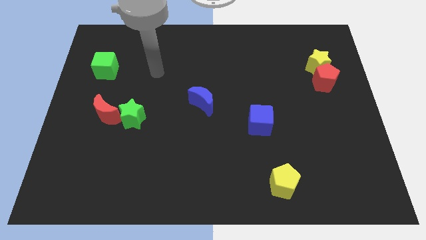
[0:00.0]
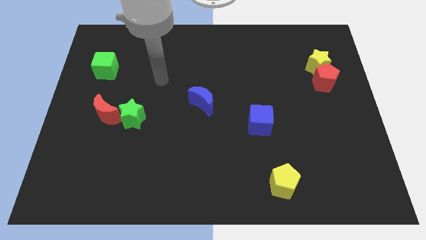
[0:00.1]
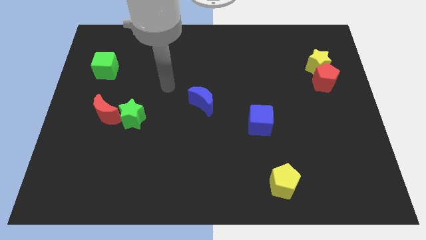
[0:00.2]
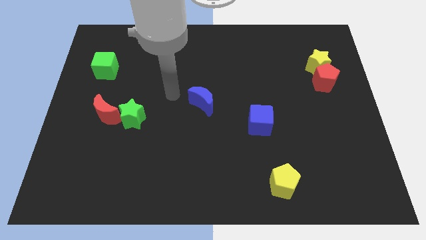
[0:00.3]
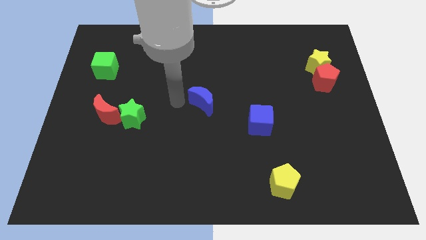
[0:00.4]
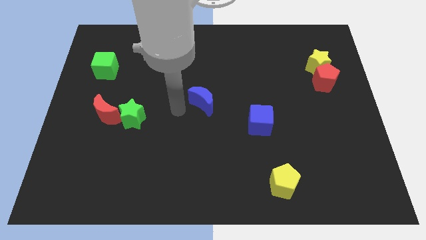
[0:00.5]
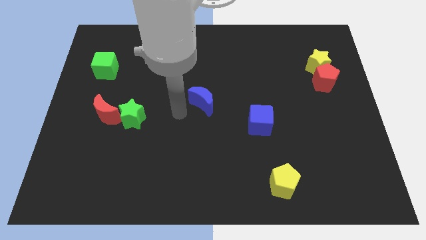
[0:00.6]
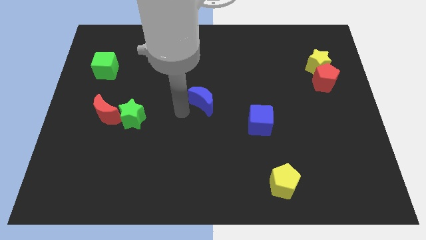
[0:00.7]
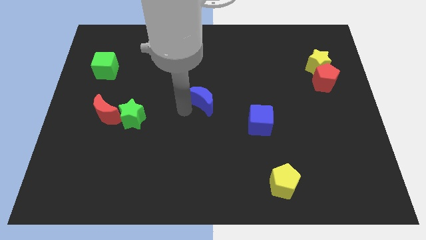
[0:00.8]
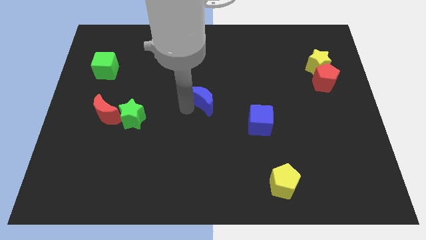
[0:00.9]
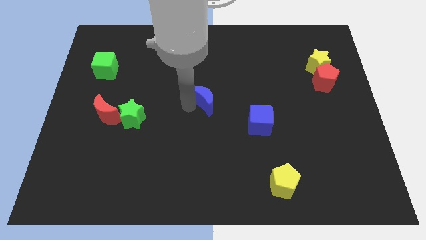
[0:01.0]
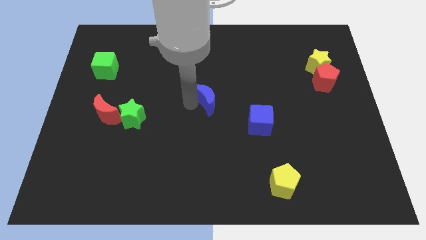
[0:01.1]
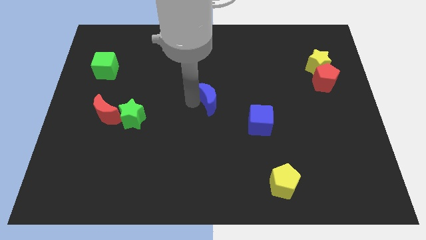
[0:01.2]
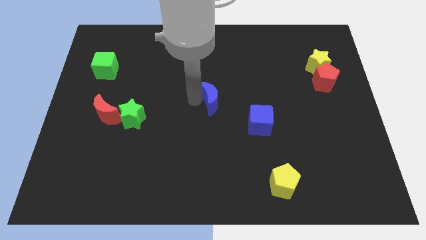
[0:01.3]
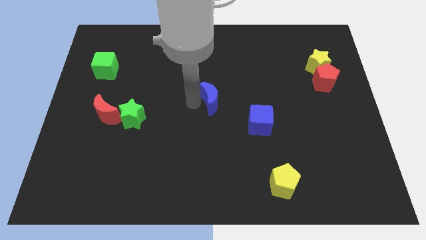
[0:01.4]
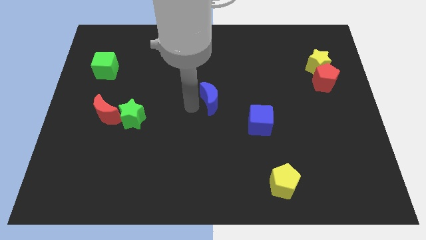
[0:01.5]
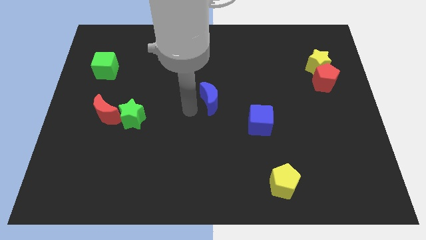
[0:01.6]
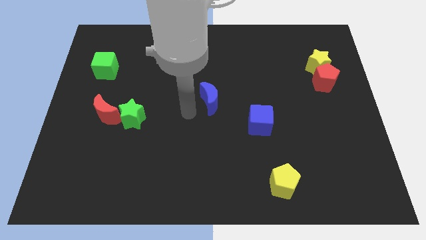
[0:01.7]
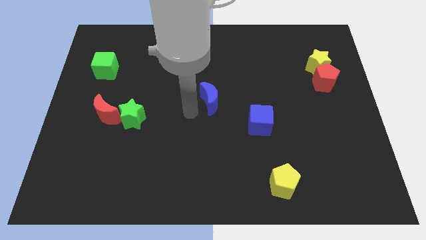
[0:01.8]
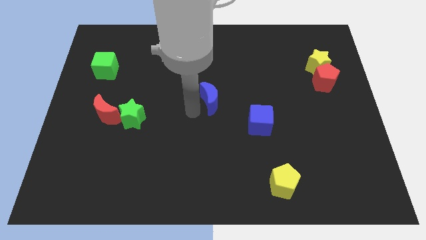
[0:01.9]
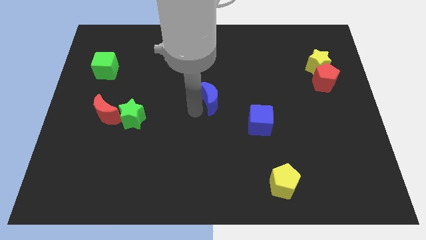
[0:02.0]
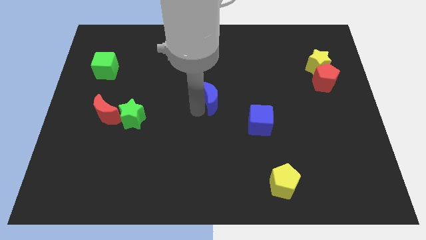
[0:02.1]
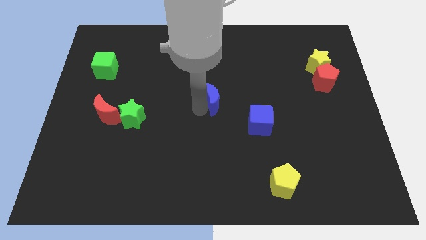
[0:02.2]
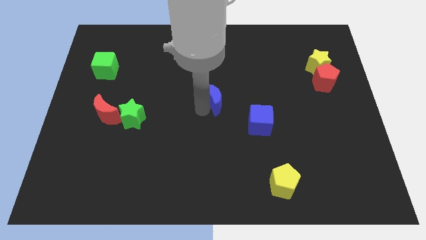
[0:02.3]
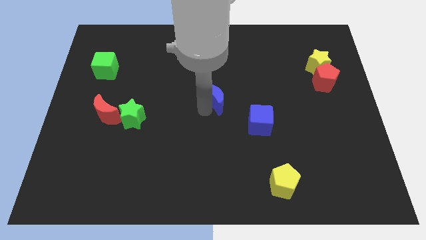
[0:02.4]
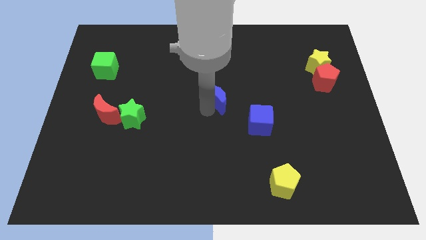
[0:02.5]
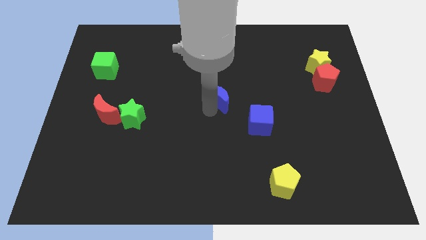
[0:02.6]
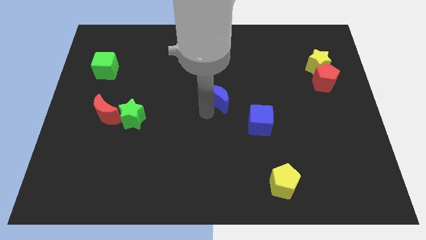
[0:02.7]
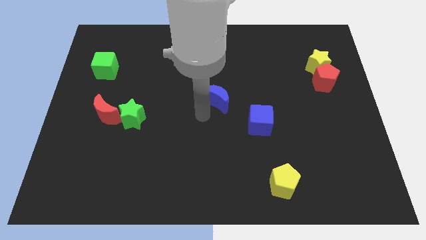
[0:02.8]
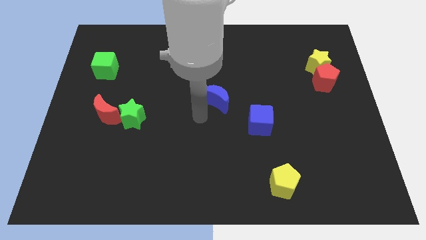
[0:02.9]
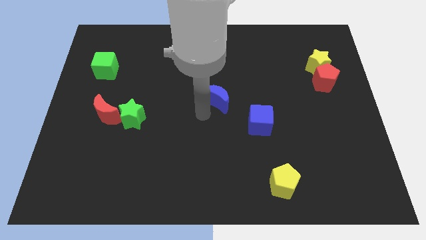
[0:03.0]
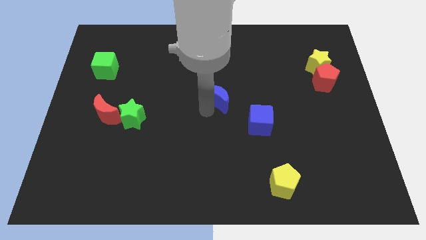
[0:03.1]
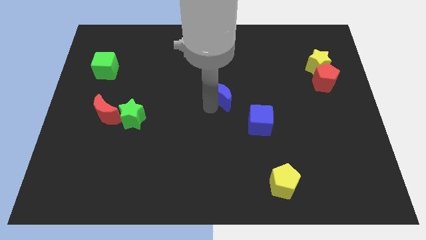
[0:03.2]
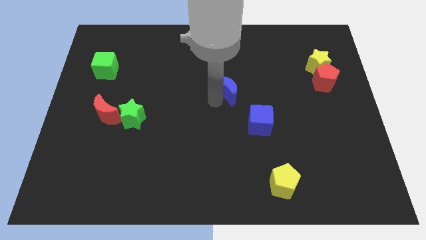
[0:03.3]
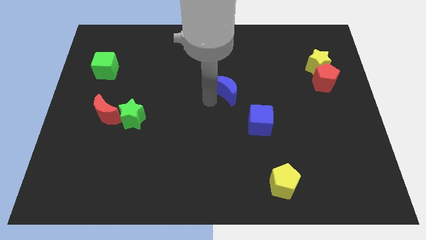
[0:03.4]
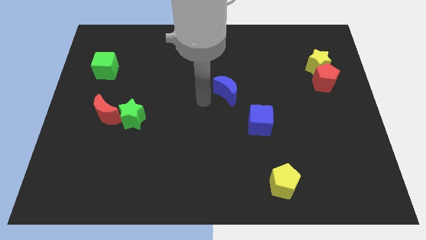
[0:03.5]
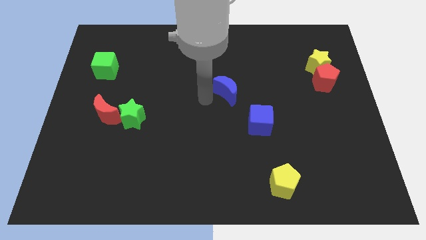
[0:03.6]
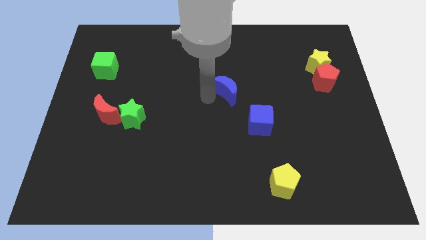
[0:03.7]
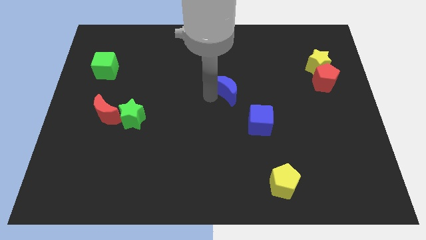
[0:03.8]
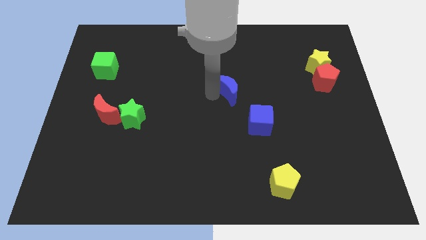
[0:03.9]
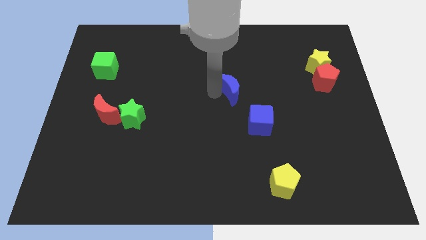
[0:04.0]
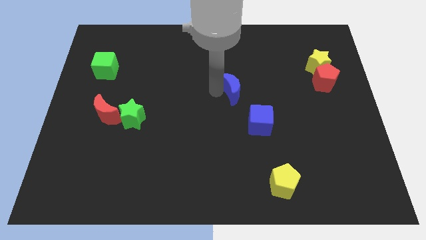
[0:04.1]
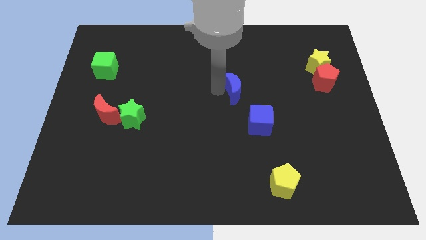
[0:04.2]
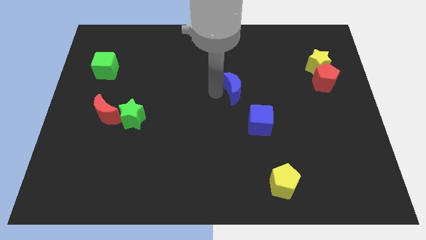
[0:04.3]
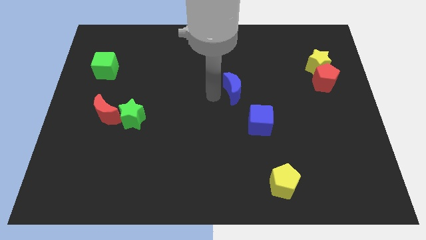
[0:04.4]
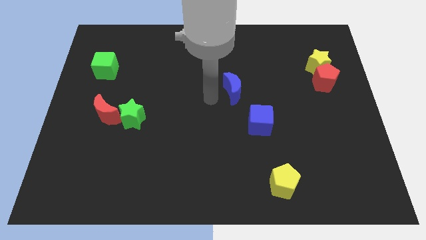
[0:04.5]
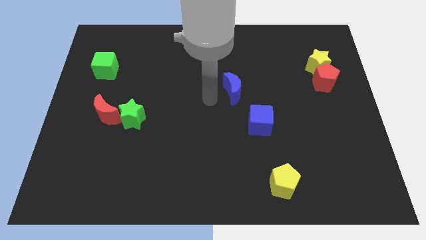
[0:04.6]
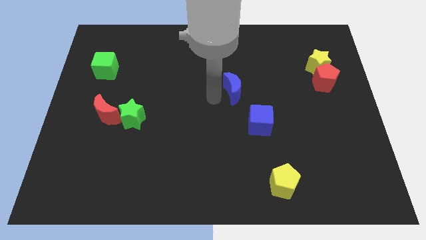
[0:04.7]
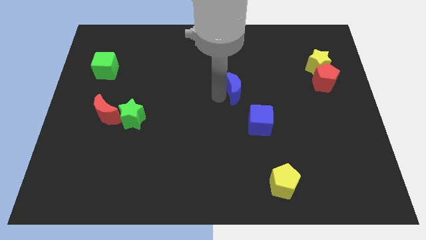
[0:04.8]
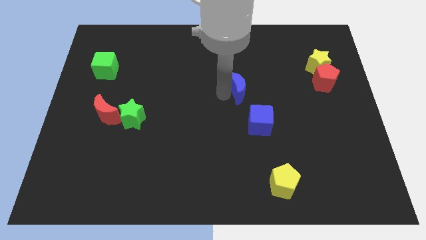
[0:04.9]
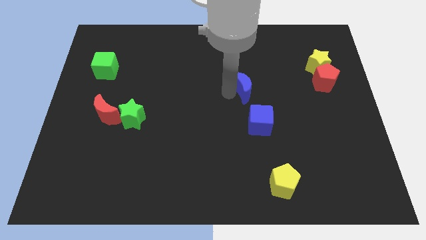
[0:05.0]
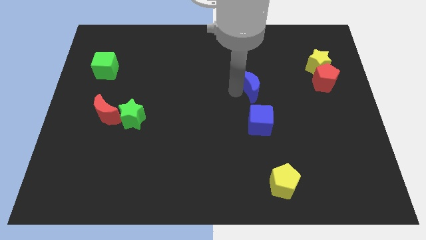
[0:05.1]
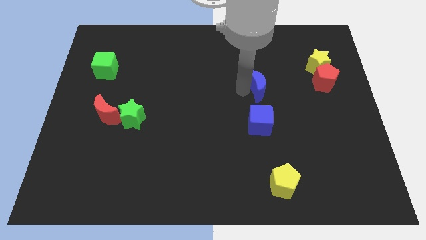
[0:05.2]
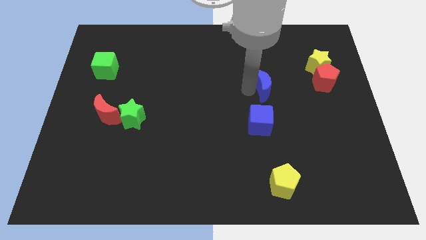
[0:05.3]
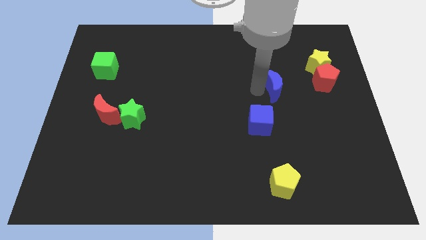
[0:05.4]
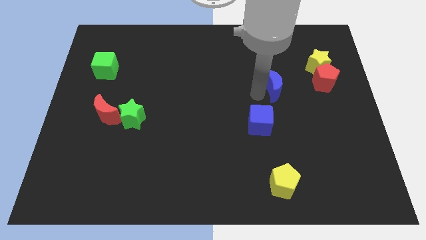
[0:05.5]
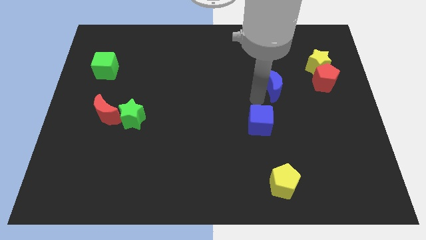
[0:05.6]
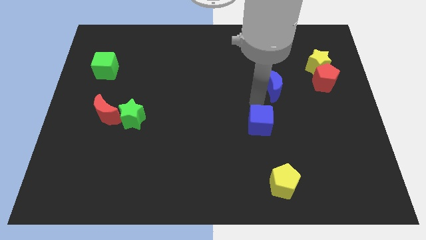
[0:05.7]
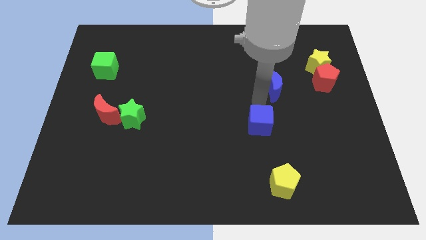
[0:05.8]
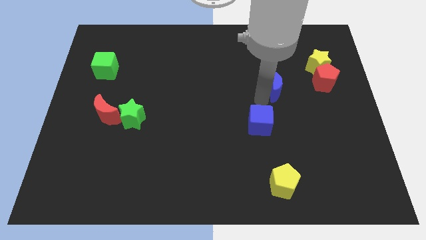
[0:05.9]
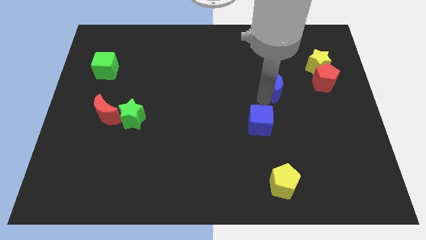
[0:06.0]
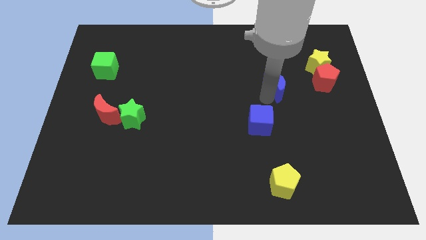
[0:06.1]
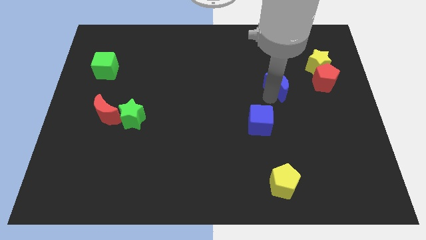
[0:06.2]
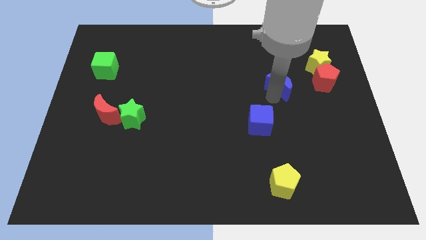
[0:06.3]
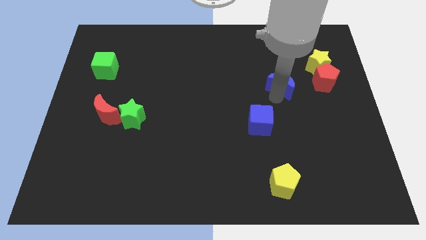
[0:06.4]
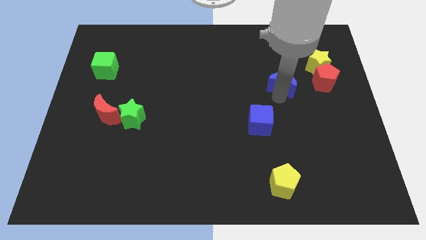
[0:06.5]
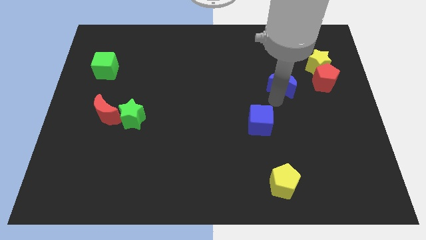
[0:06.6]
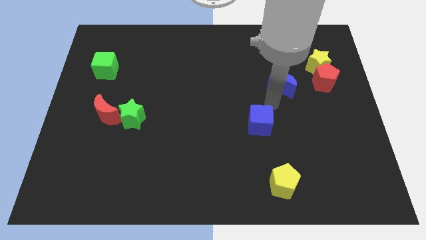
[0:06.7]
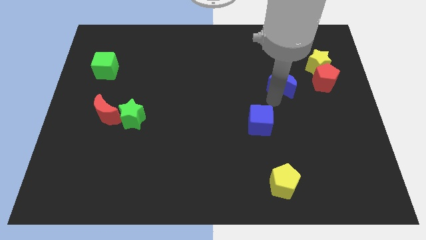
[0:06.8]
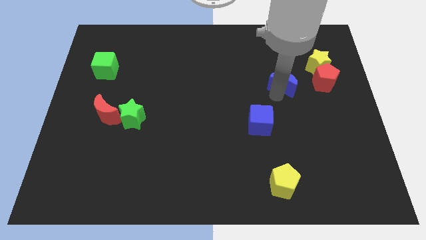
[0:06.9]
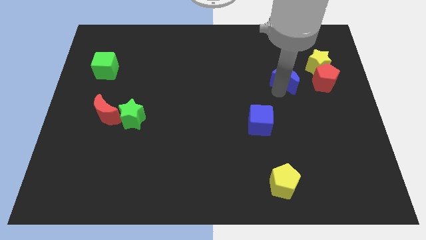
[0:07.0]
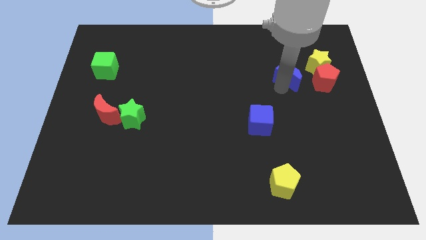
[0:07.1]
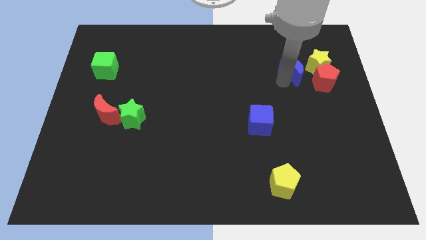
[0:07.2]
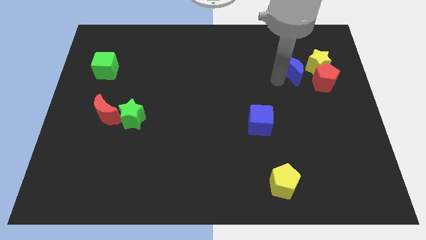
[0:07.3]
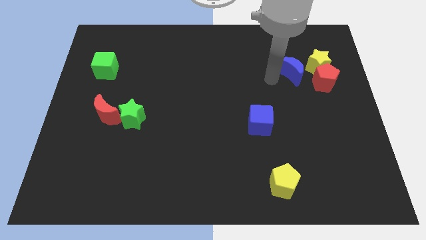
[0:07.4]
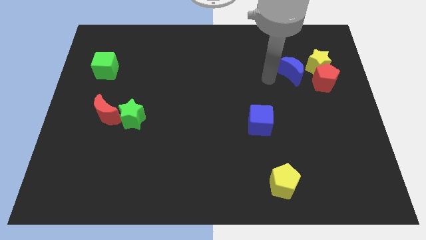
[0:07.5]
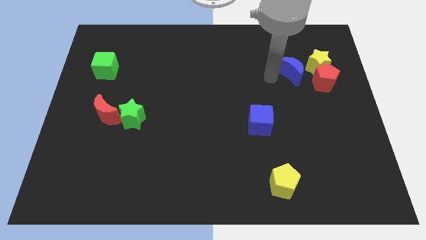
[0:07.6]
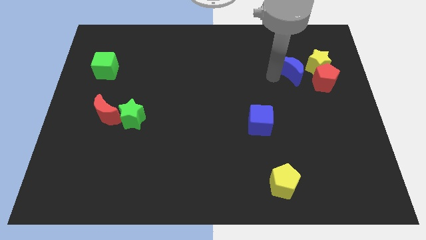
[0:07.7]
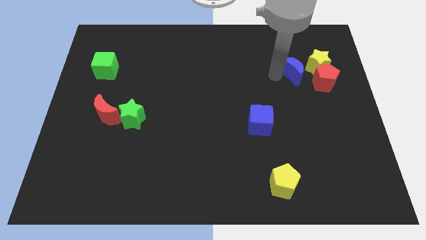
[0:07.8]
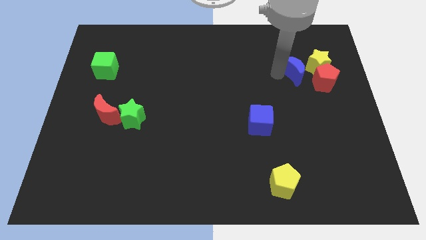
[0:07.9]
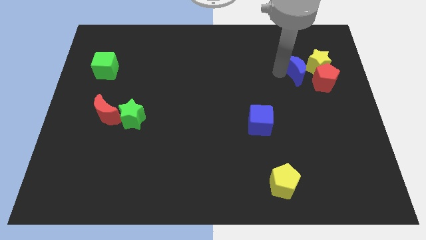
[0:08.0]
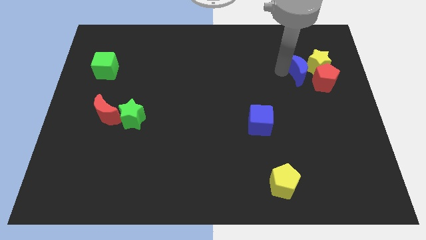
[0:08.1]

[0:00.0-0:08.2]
push the blue moon next to the yellow star
